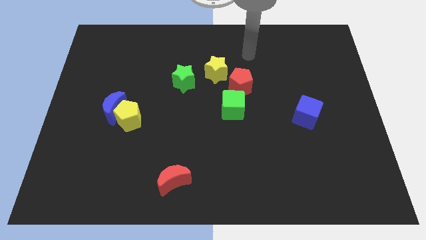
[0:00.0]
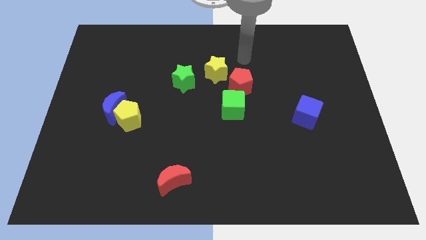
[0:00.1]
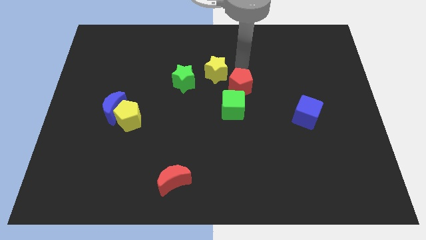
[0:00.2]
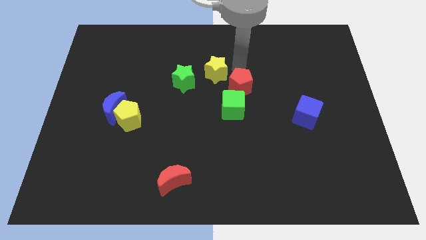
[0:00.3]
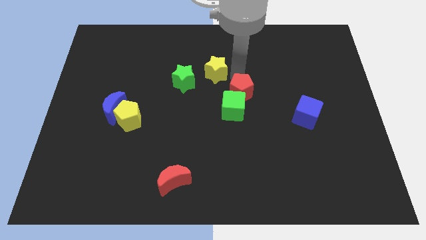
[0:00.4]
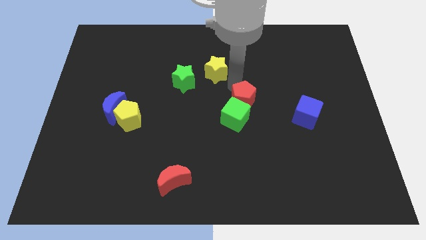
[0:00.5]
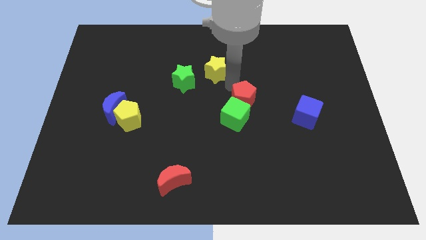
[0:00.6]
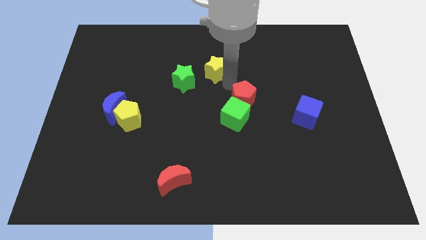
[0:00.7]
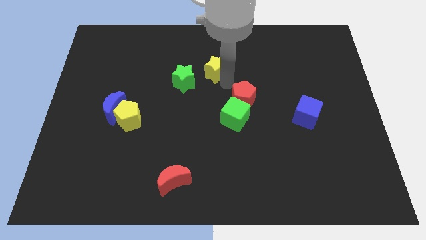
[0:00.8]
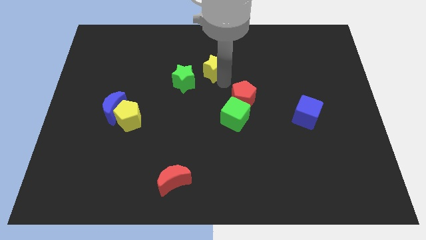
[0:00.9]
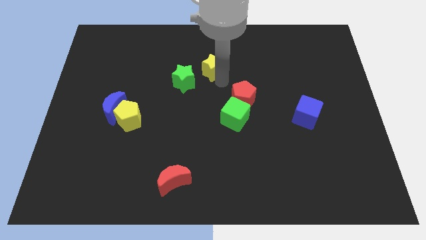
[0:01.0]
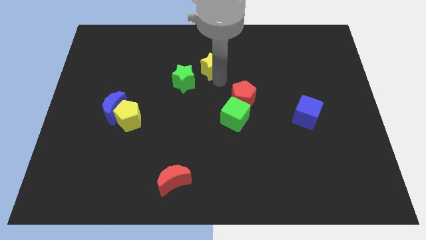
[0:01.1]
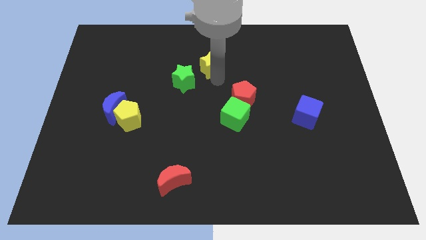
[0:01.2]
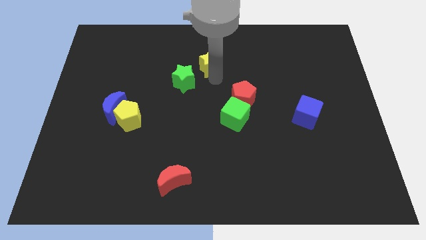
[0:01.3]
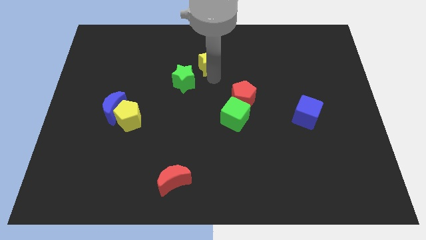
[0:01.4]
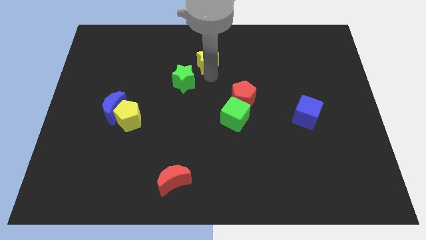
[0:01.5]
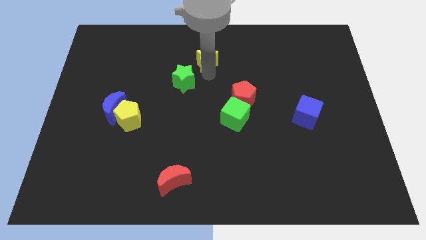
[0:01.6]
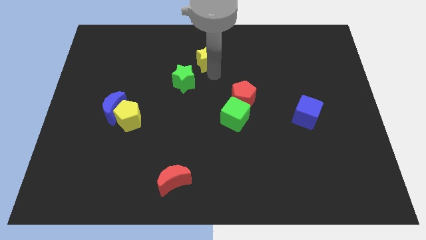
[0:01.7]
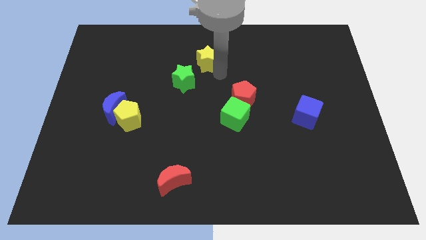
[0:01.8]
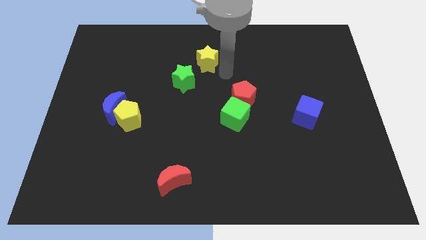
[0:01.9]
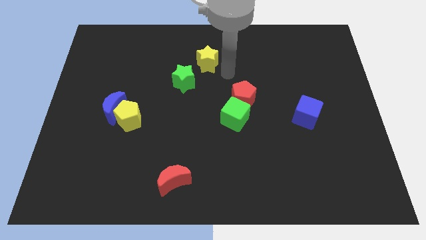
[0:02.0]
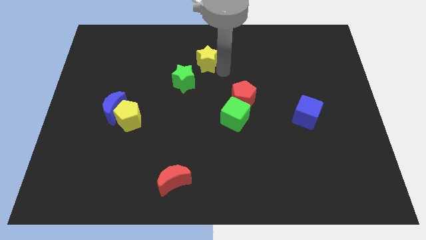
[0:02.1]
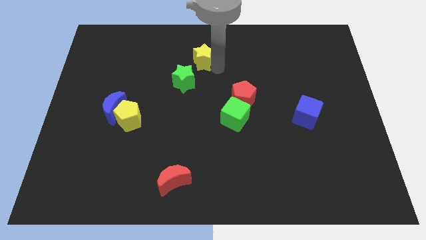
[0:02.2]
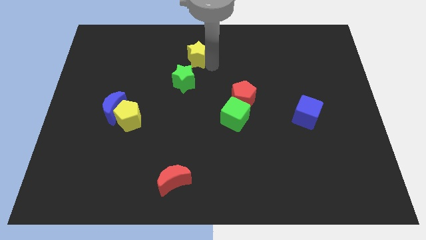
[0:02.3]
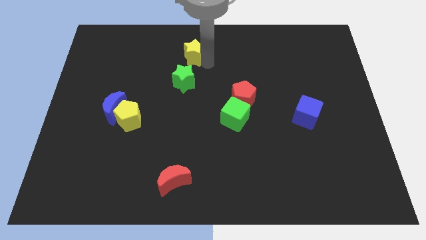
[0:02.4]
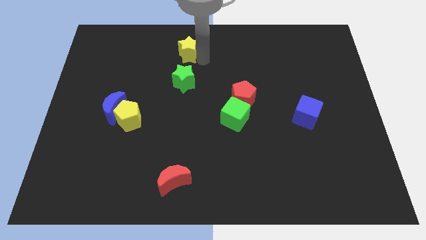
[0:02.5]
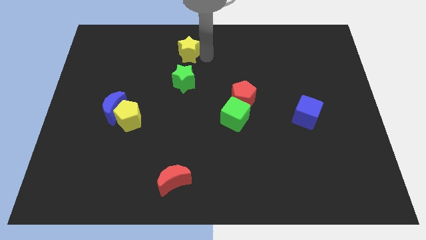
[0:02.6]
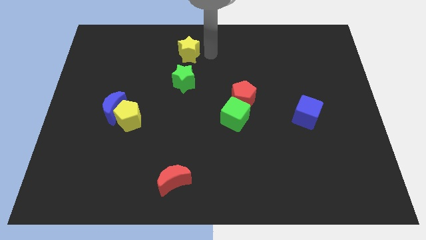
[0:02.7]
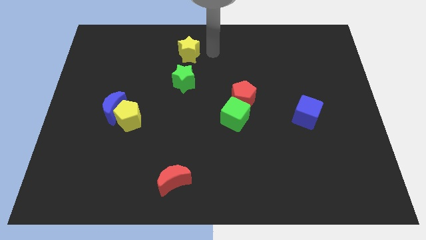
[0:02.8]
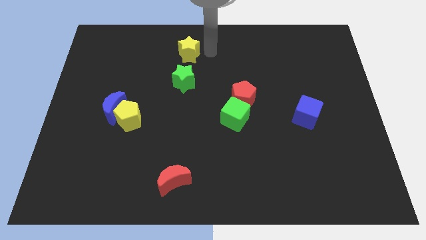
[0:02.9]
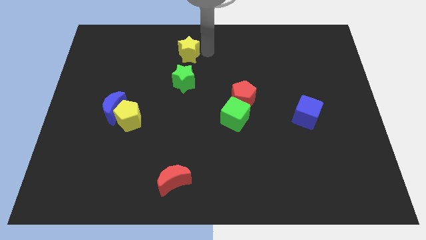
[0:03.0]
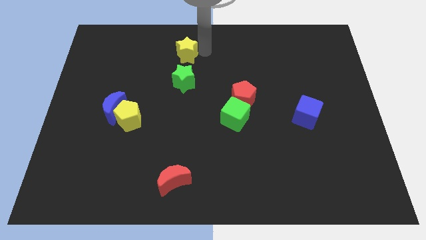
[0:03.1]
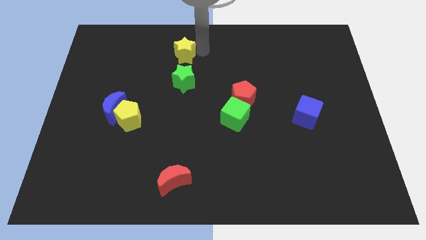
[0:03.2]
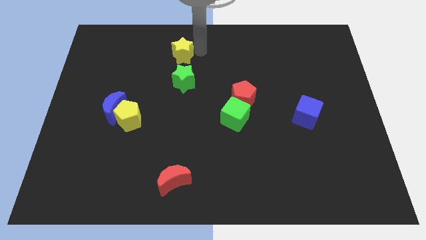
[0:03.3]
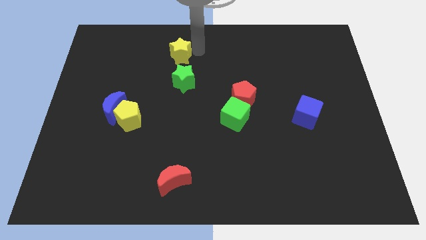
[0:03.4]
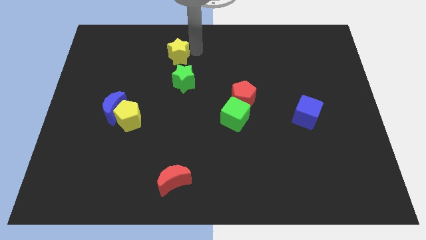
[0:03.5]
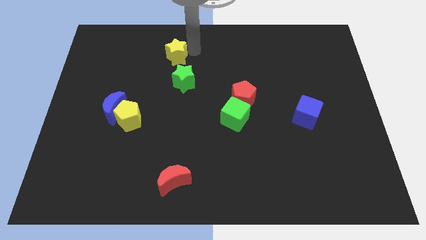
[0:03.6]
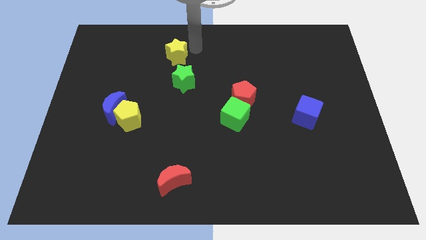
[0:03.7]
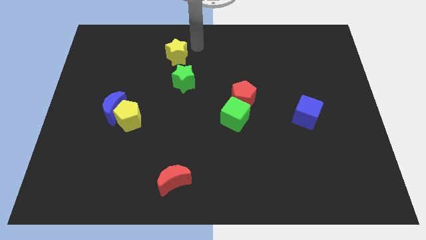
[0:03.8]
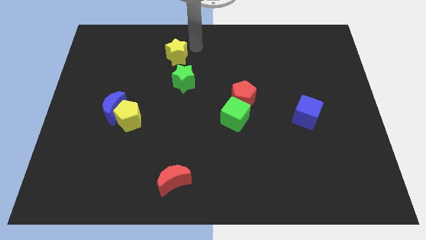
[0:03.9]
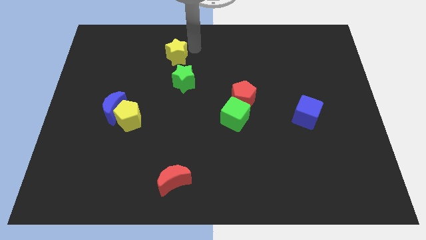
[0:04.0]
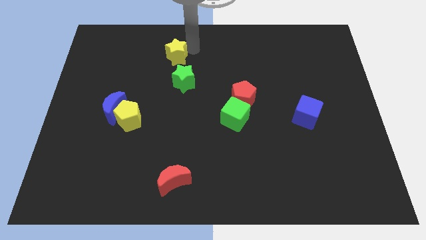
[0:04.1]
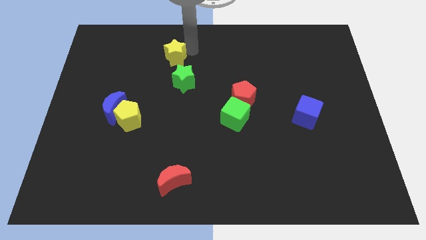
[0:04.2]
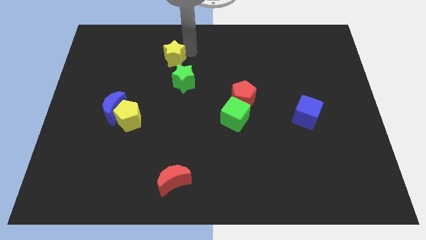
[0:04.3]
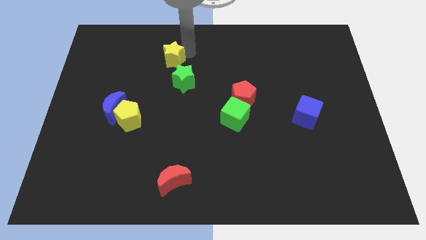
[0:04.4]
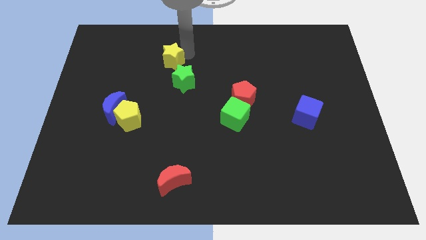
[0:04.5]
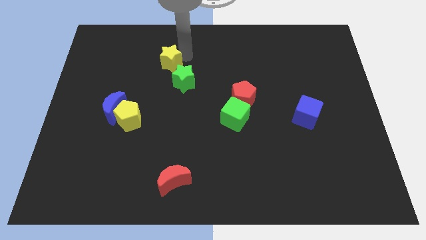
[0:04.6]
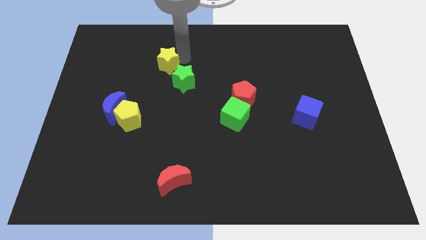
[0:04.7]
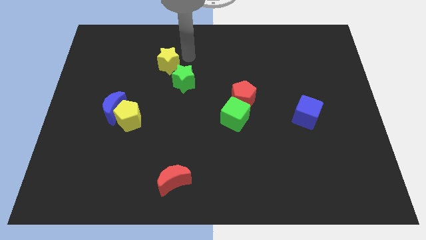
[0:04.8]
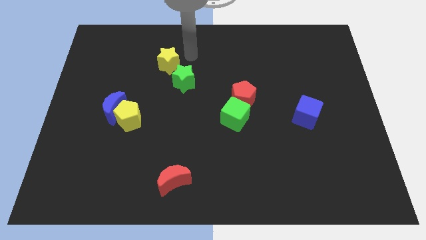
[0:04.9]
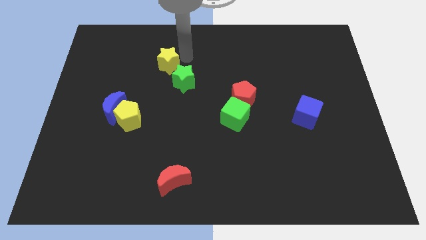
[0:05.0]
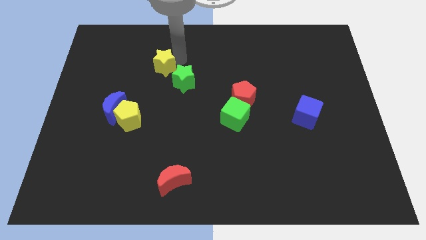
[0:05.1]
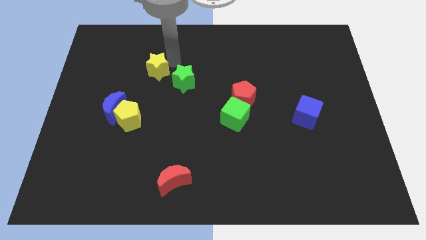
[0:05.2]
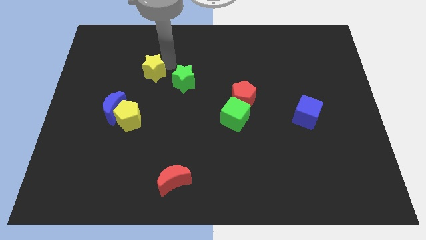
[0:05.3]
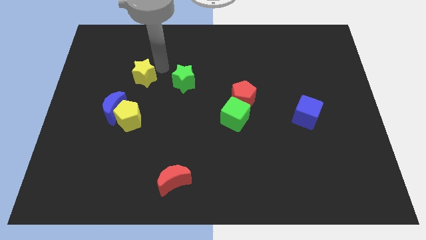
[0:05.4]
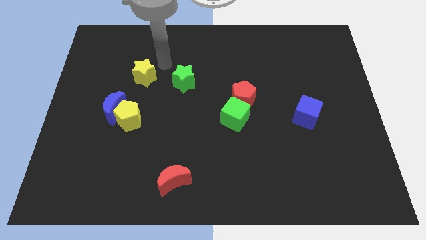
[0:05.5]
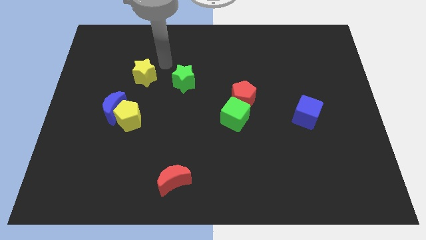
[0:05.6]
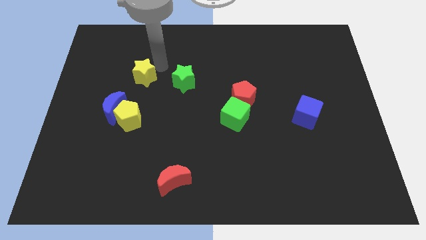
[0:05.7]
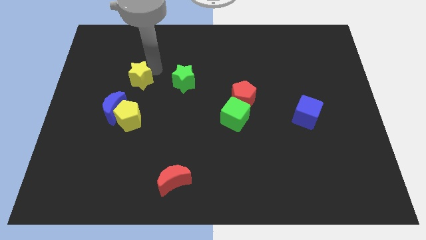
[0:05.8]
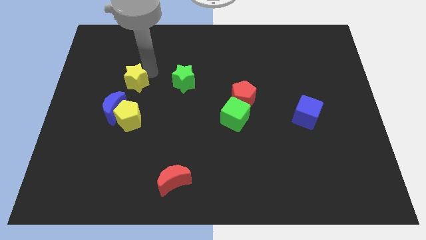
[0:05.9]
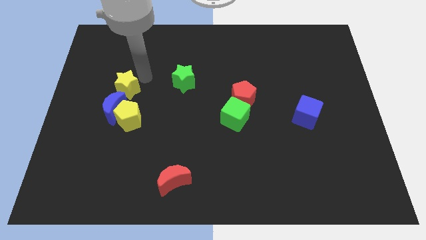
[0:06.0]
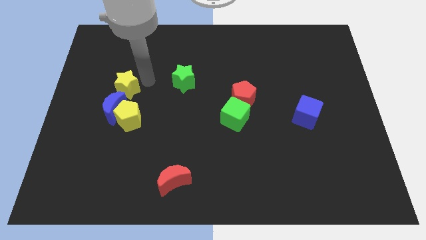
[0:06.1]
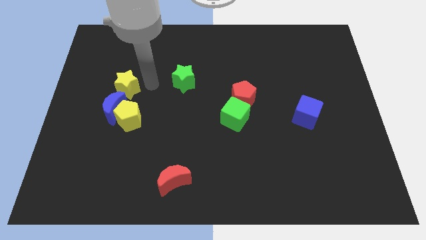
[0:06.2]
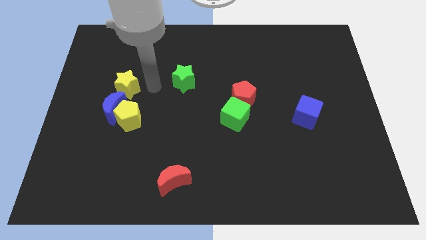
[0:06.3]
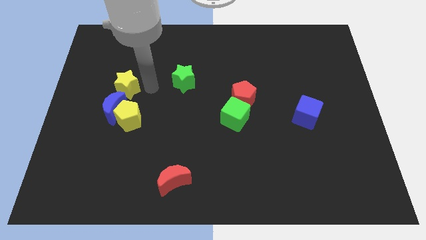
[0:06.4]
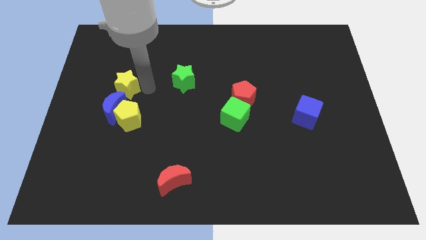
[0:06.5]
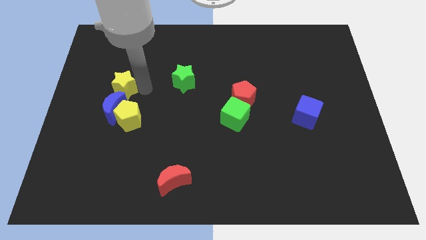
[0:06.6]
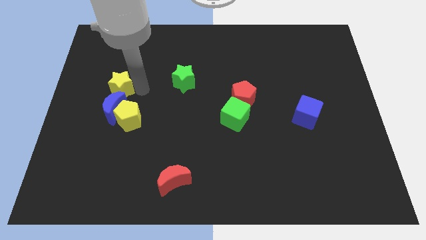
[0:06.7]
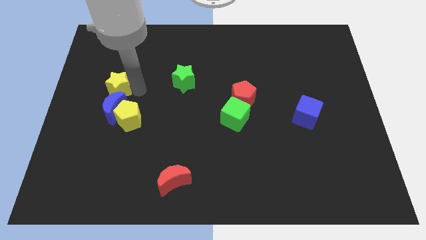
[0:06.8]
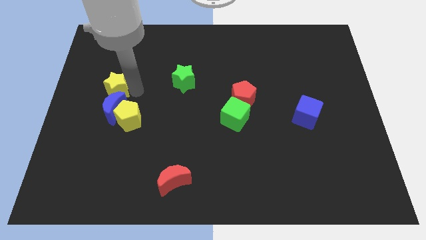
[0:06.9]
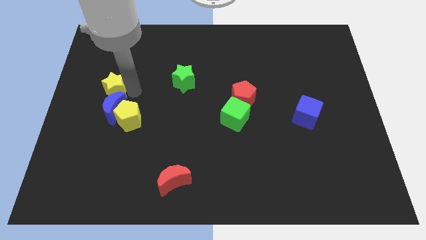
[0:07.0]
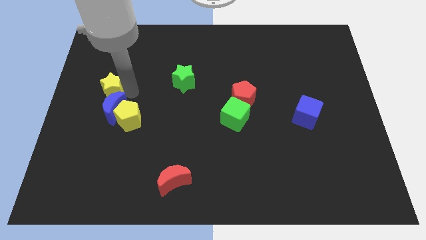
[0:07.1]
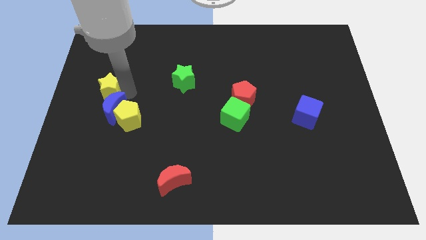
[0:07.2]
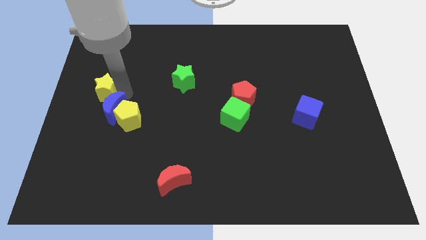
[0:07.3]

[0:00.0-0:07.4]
move the yellow star to the left side
